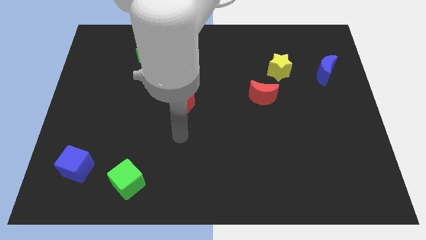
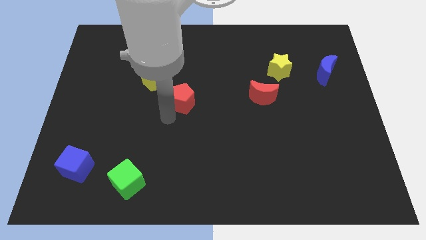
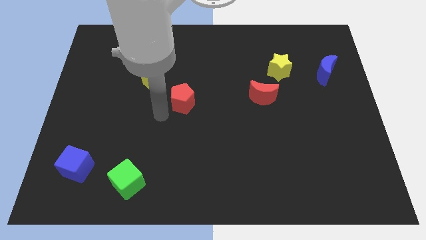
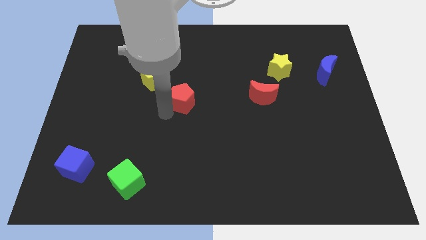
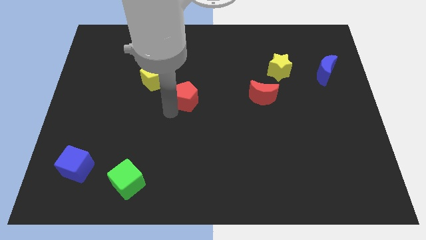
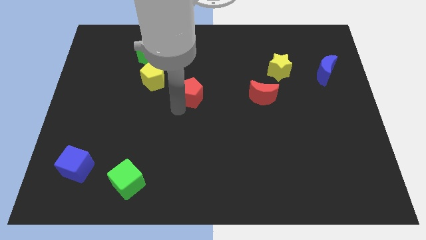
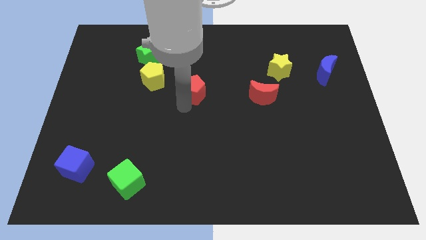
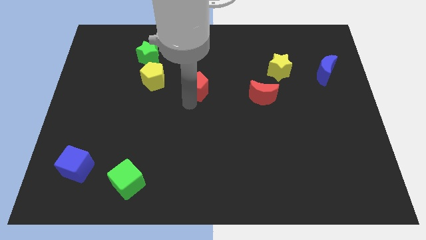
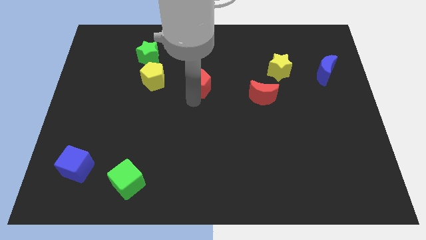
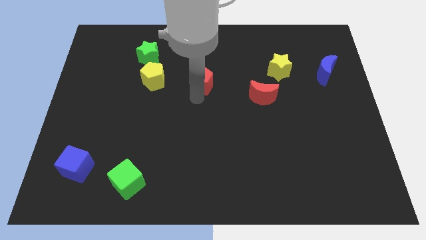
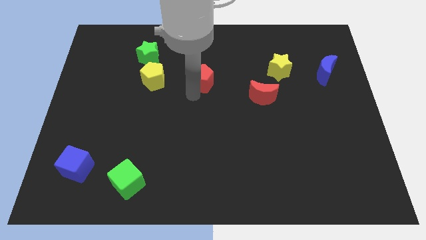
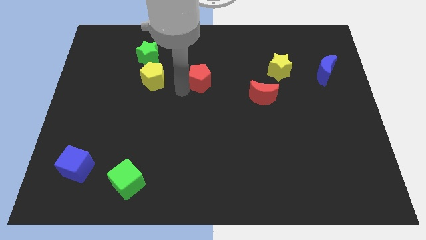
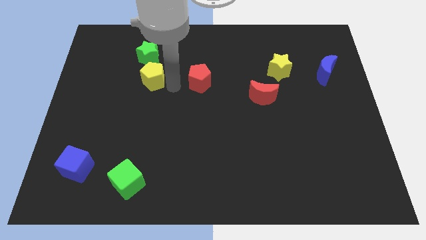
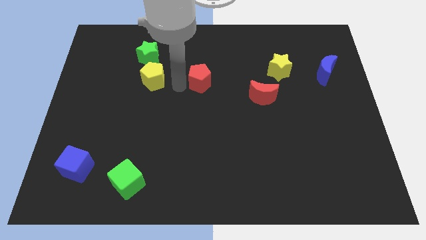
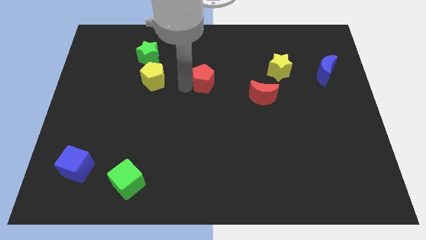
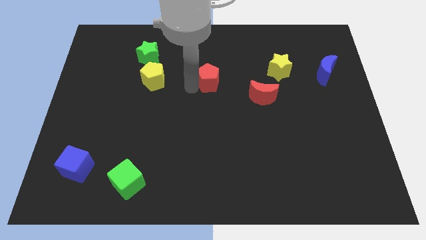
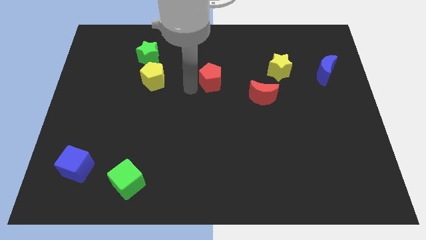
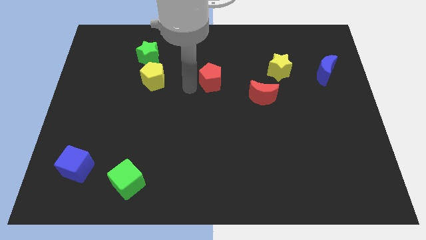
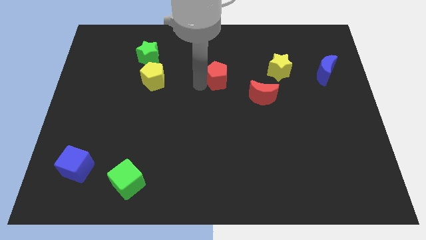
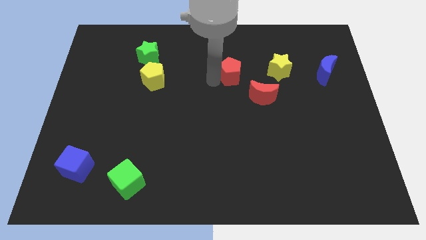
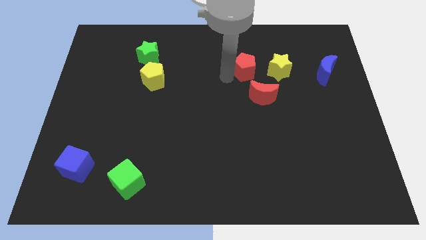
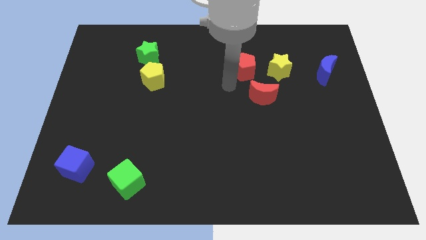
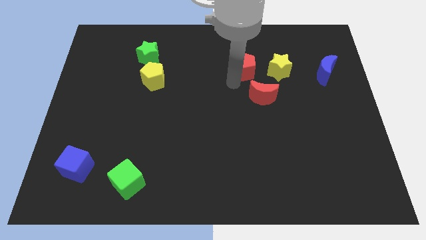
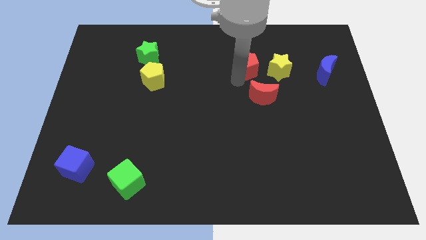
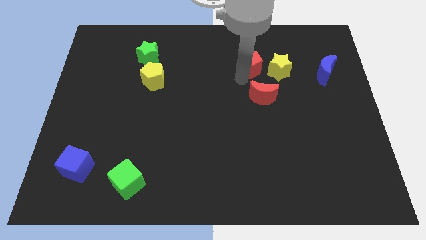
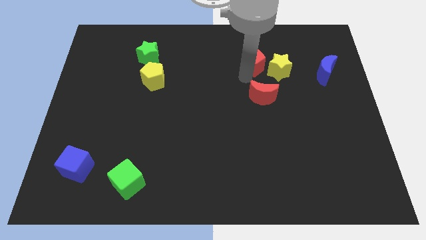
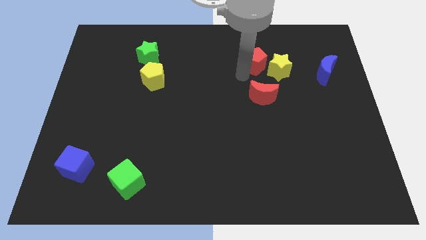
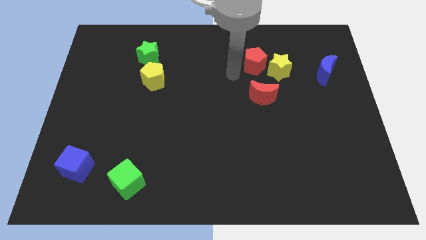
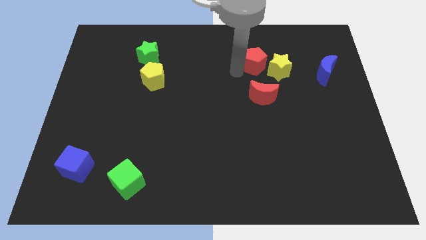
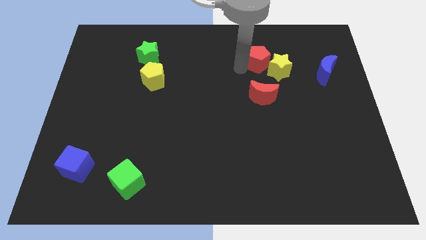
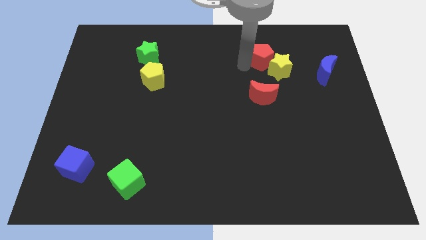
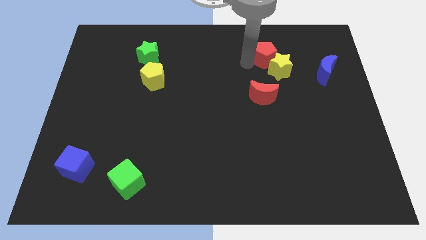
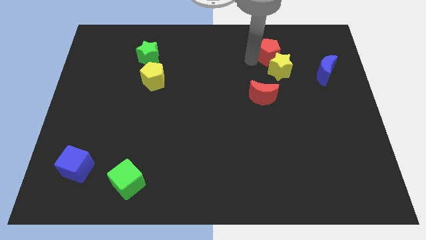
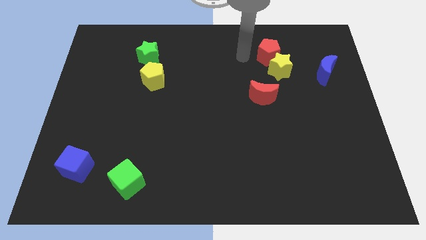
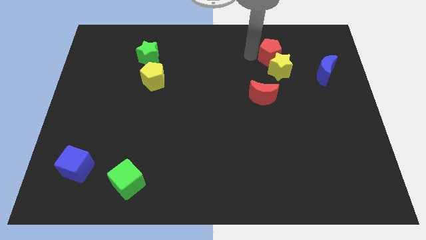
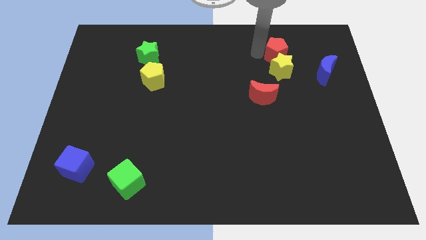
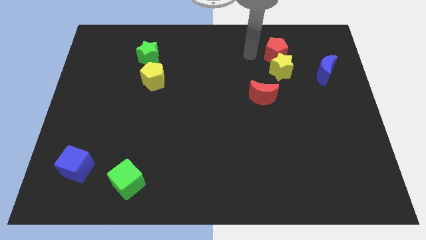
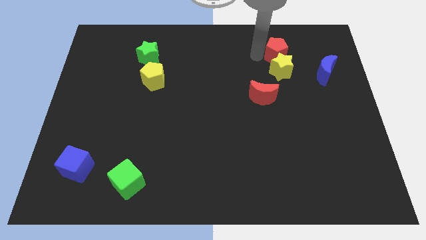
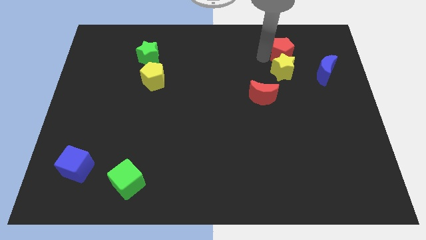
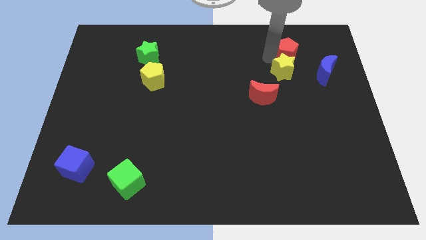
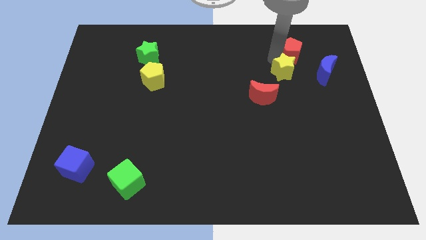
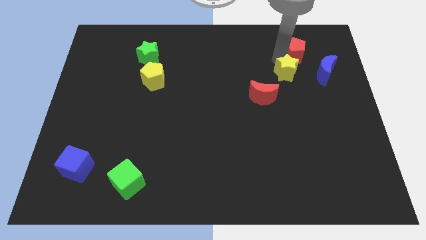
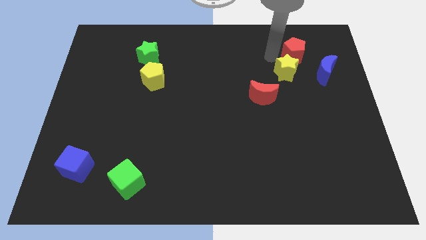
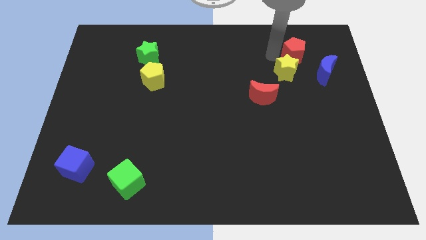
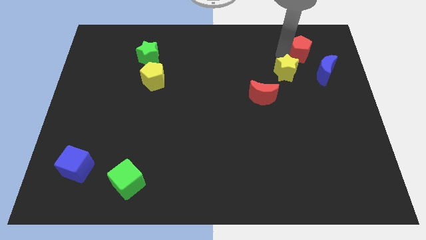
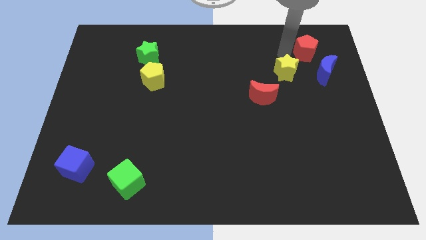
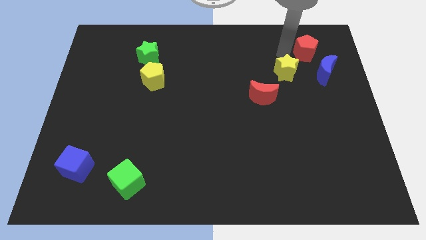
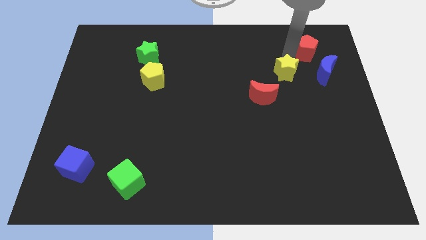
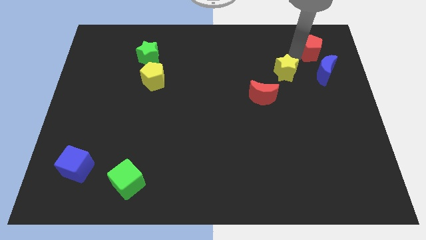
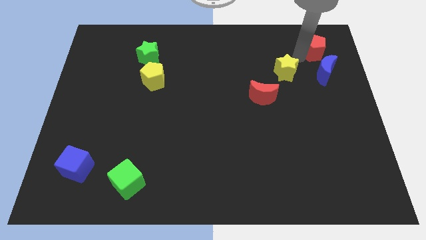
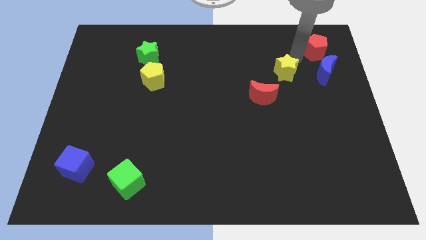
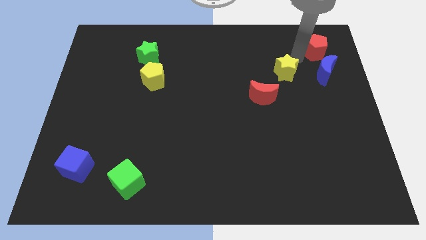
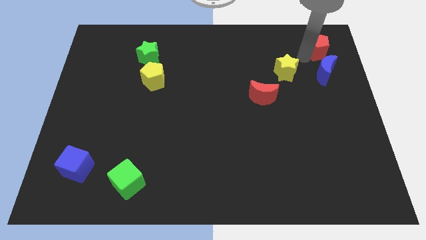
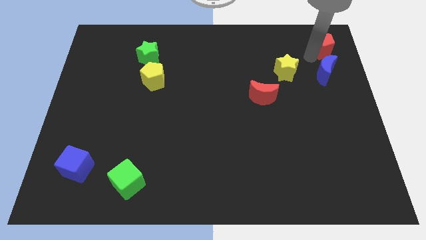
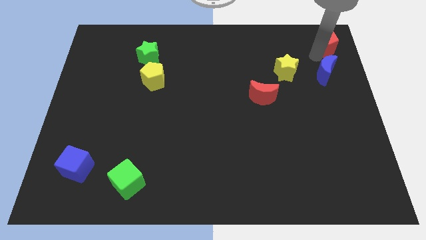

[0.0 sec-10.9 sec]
put the red pentagon to the top right of the board

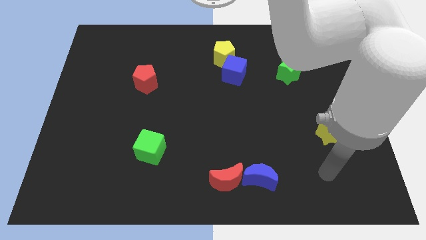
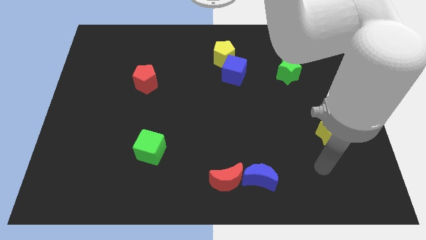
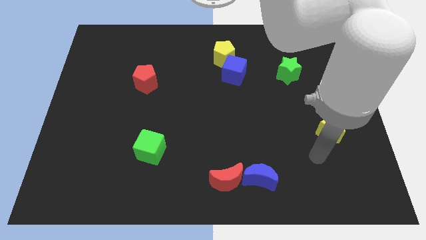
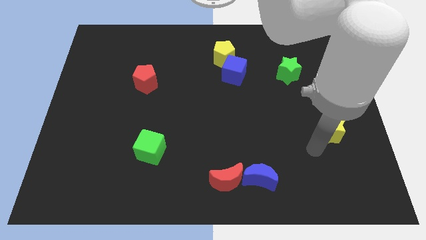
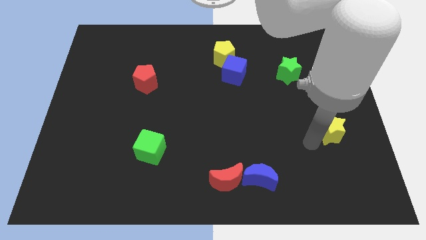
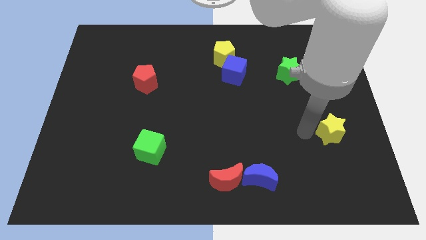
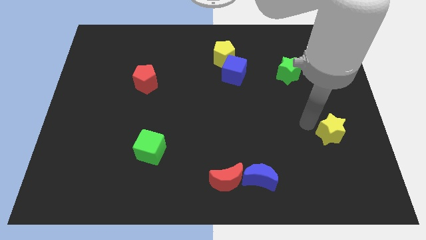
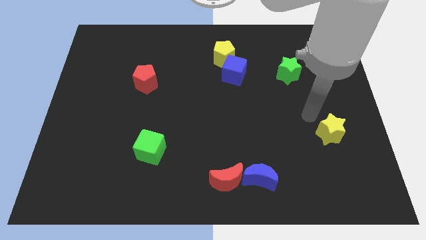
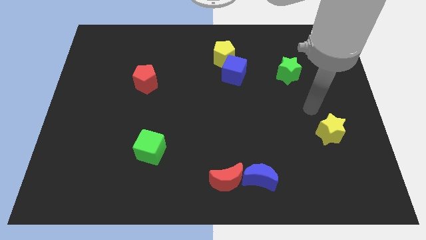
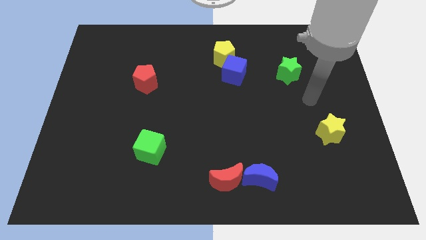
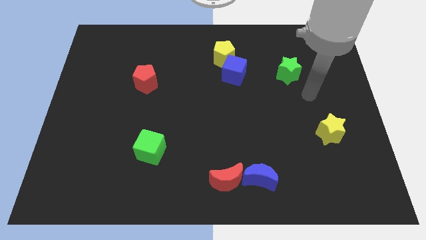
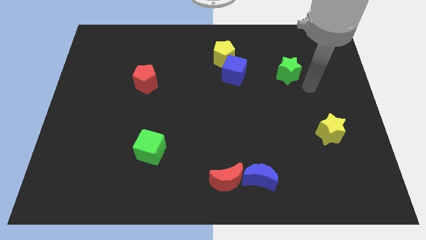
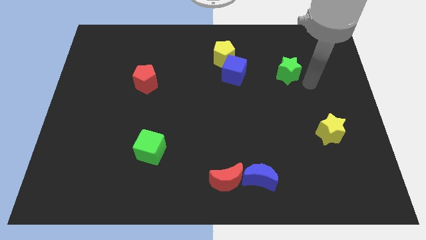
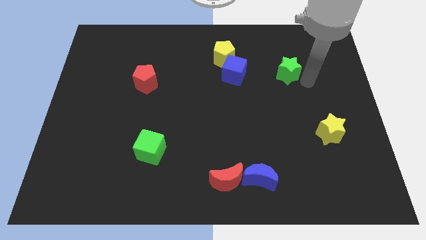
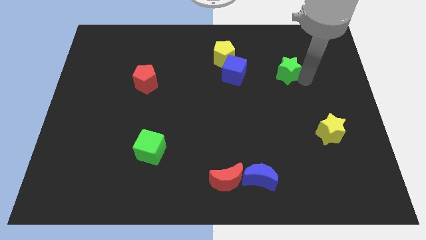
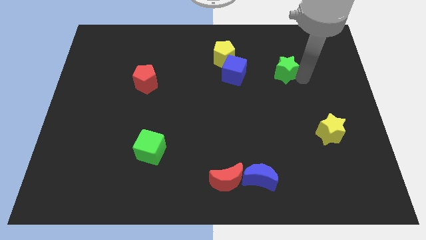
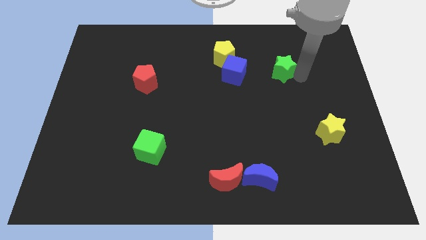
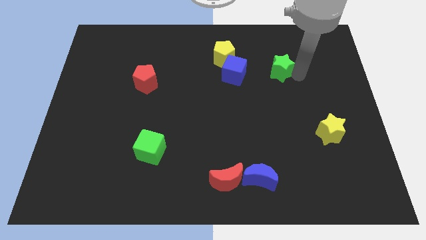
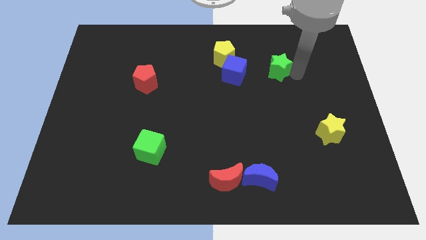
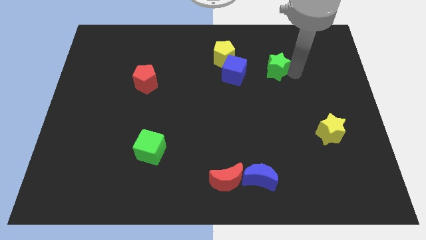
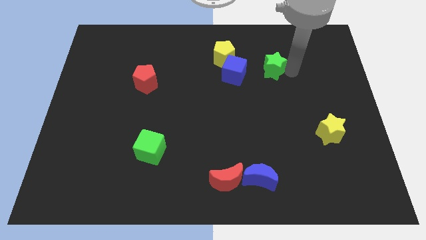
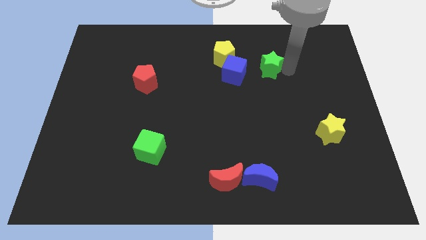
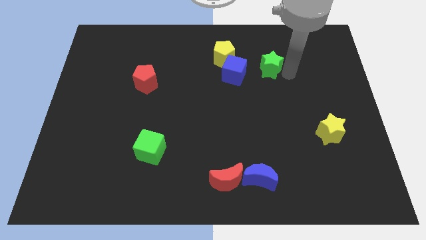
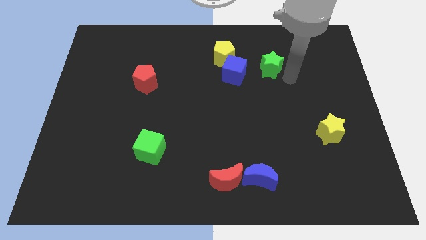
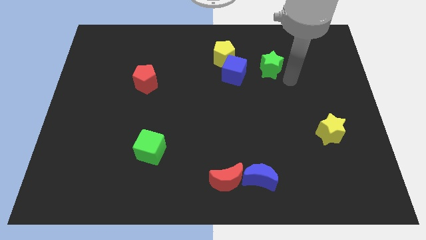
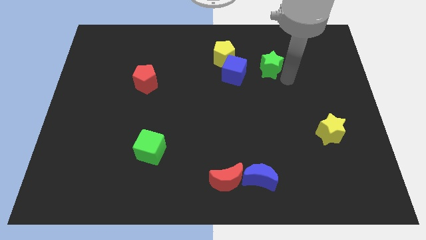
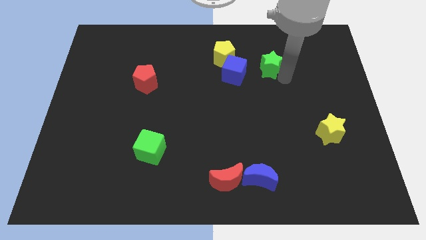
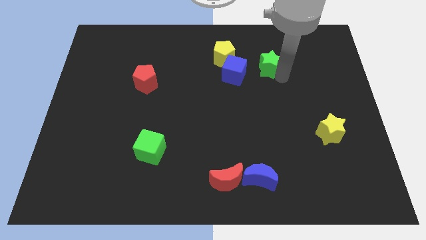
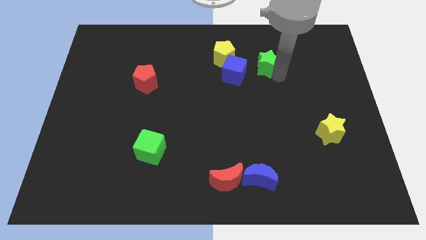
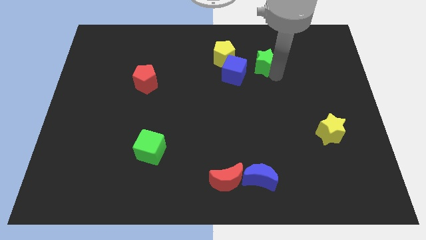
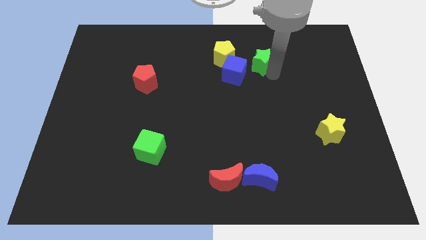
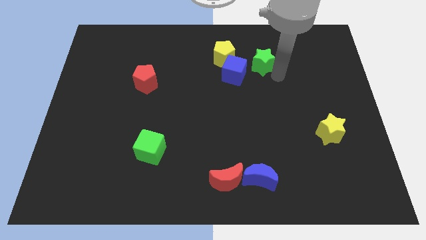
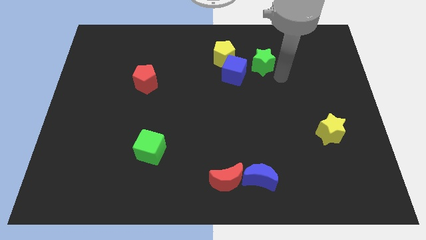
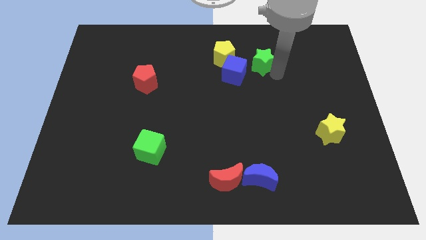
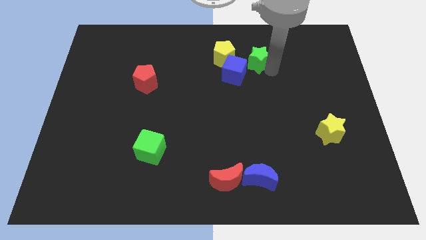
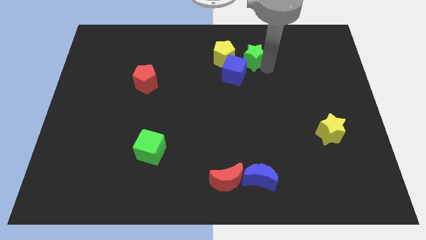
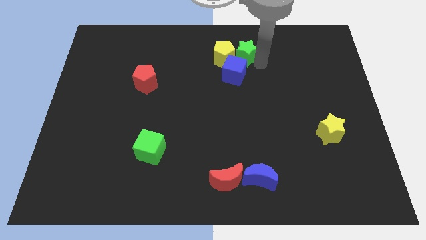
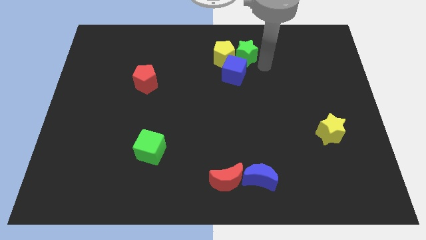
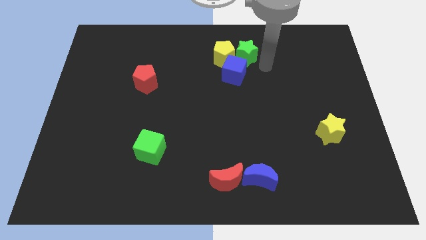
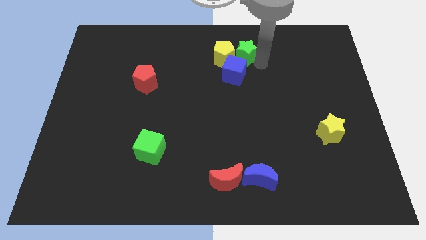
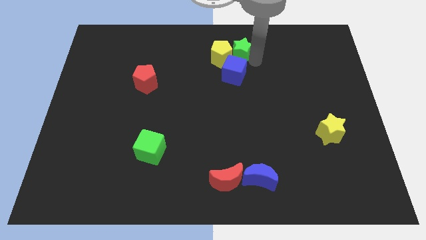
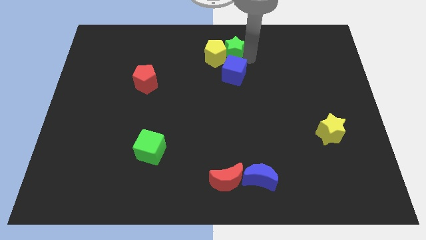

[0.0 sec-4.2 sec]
put the green star to the top
